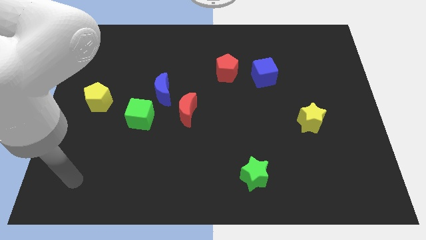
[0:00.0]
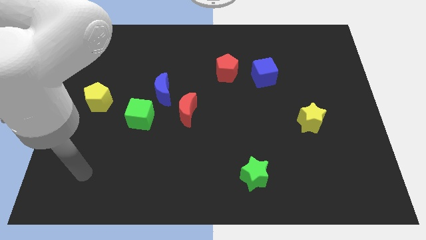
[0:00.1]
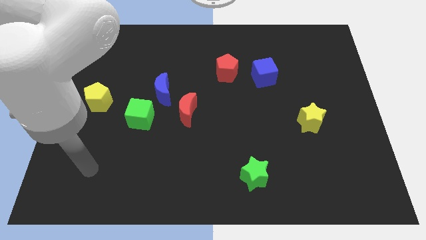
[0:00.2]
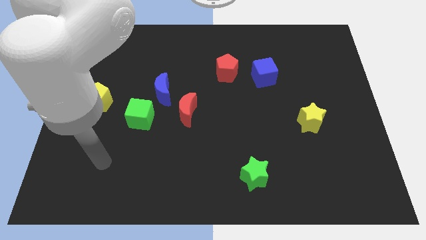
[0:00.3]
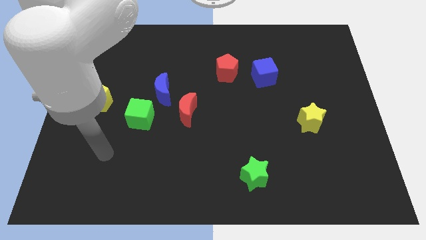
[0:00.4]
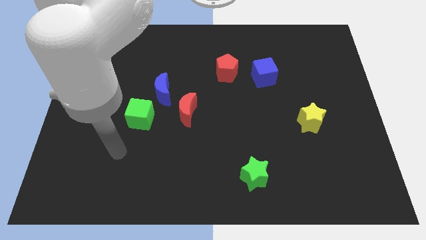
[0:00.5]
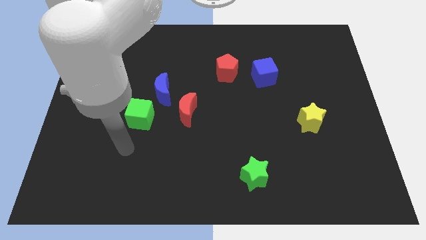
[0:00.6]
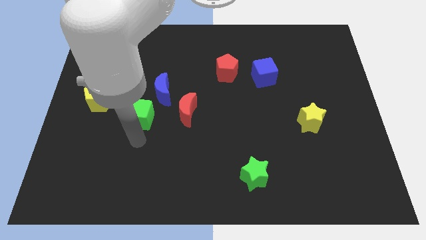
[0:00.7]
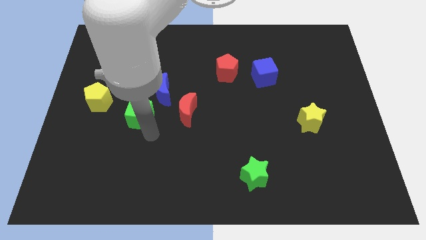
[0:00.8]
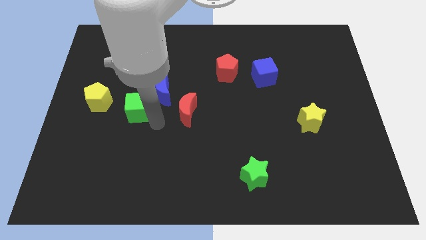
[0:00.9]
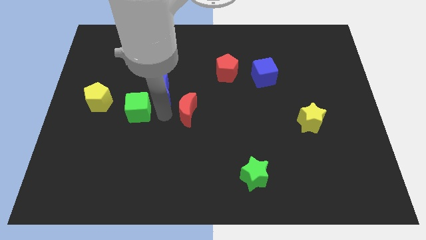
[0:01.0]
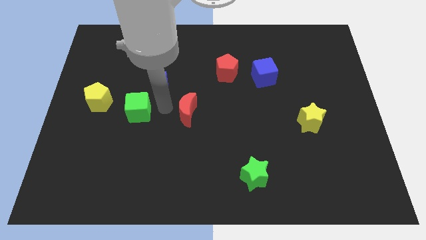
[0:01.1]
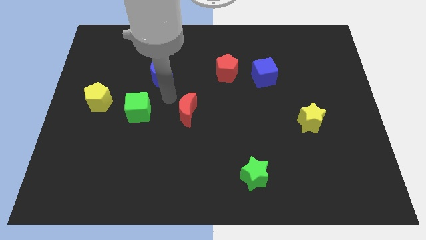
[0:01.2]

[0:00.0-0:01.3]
move the red moon away from the blue moon

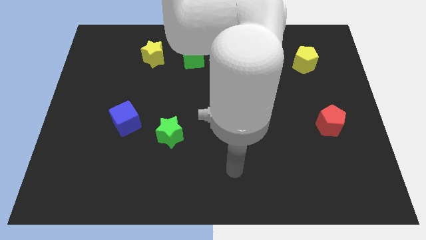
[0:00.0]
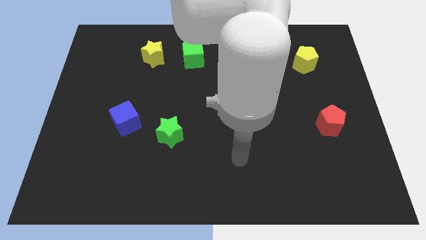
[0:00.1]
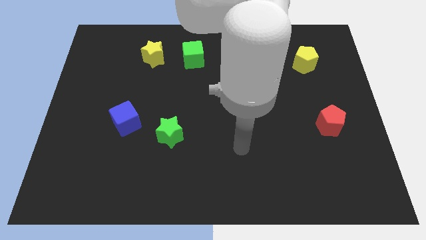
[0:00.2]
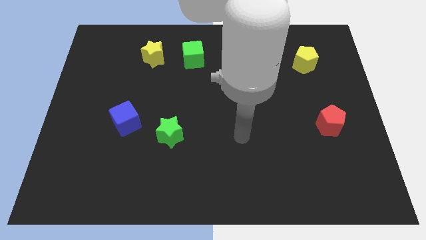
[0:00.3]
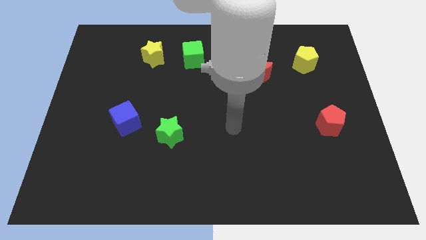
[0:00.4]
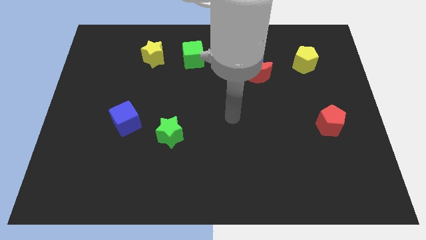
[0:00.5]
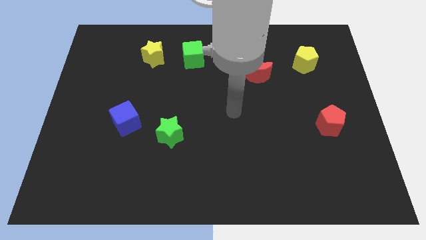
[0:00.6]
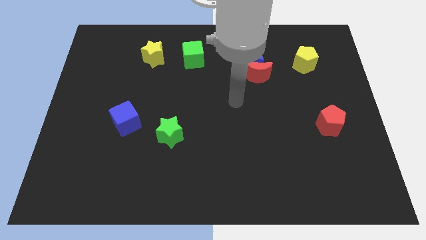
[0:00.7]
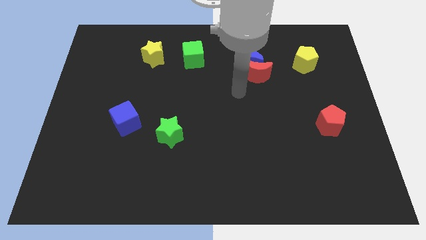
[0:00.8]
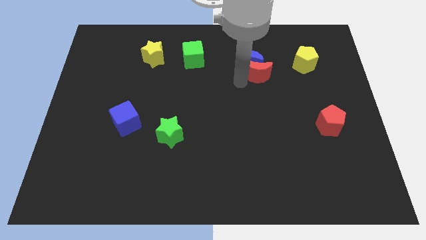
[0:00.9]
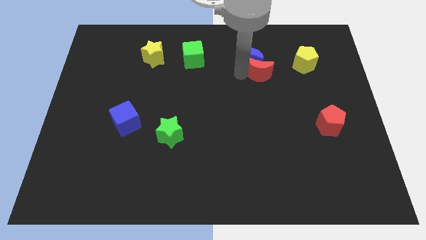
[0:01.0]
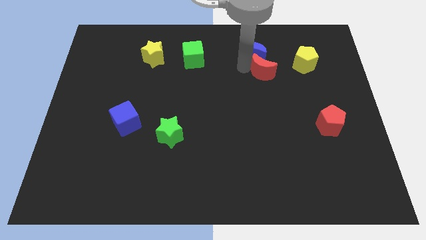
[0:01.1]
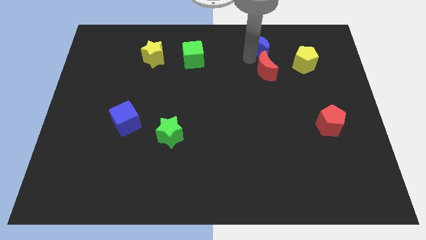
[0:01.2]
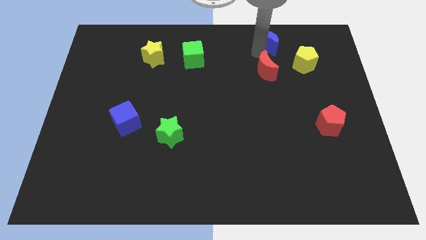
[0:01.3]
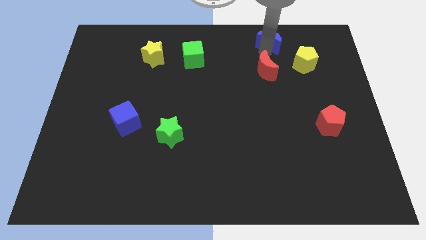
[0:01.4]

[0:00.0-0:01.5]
pull the red moon apart from the blue moon

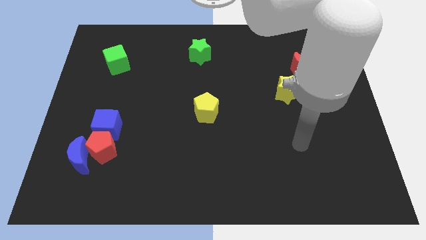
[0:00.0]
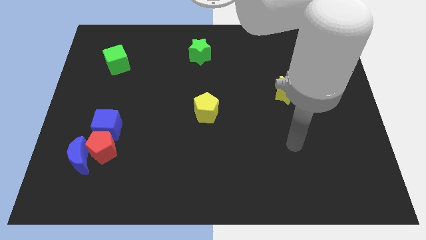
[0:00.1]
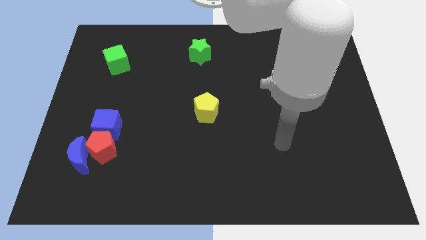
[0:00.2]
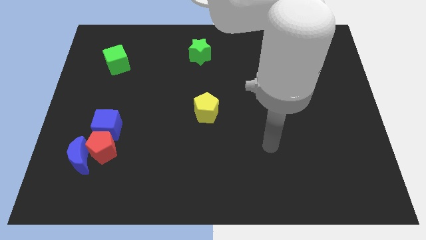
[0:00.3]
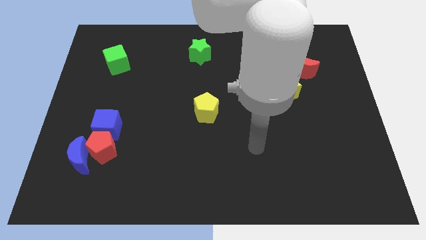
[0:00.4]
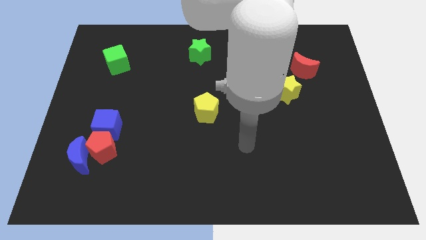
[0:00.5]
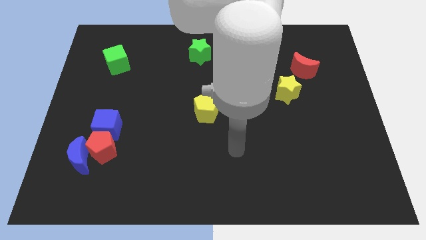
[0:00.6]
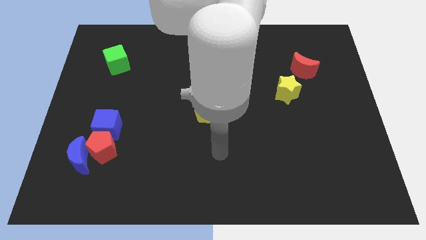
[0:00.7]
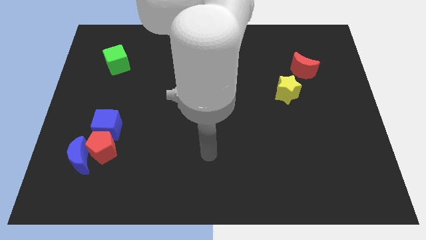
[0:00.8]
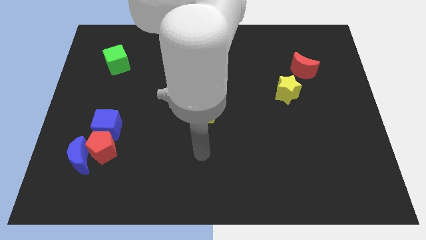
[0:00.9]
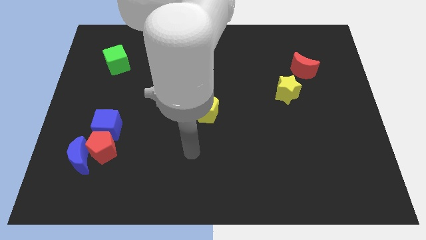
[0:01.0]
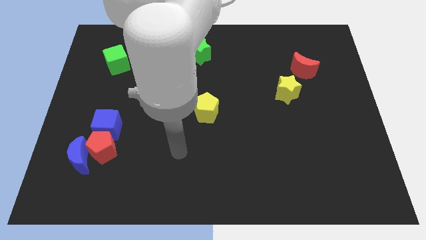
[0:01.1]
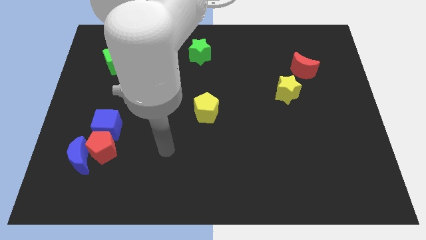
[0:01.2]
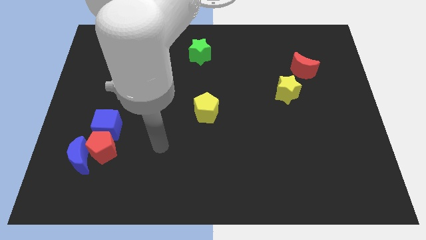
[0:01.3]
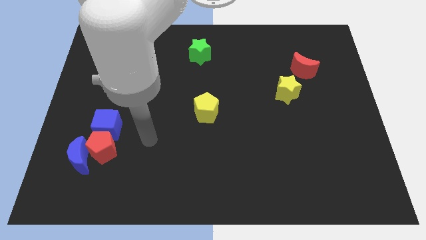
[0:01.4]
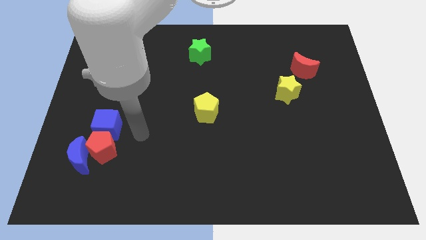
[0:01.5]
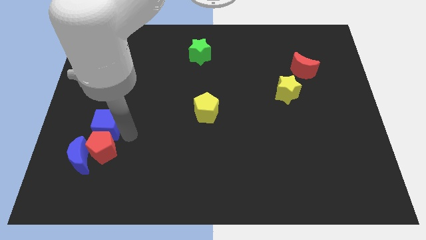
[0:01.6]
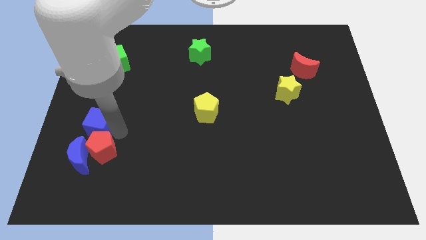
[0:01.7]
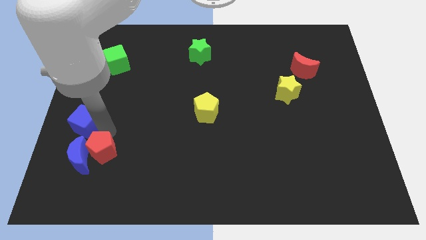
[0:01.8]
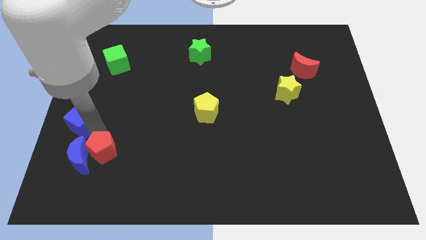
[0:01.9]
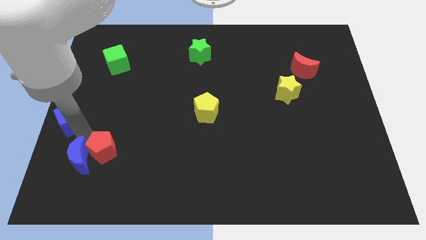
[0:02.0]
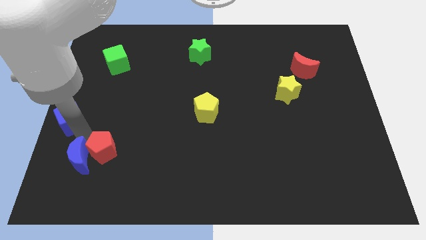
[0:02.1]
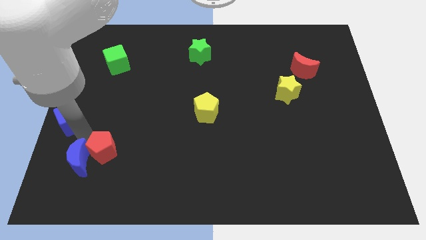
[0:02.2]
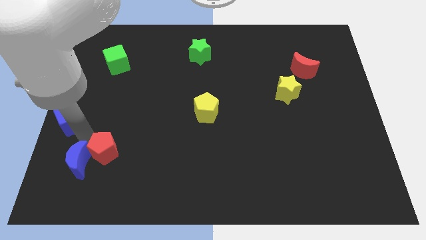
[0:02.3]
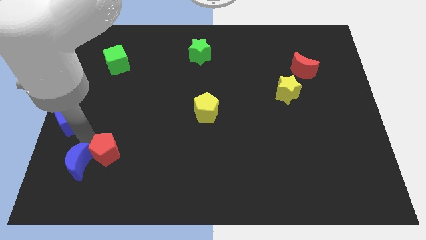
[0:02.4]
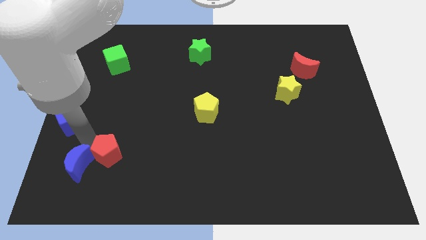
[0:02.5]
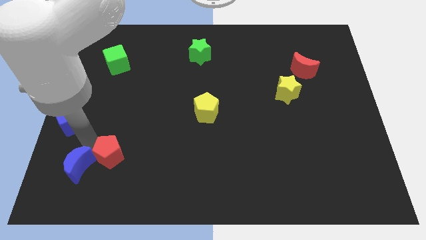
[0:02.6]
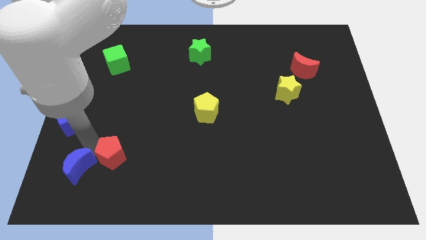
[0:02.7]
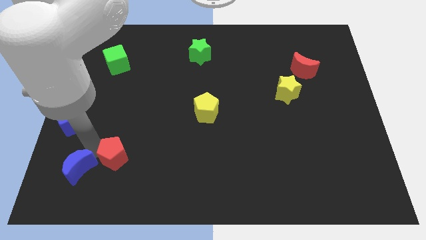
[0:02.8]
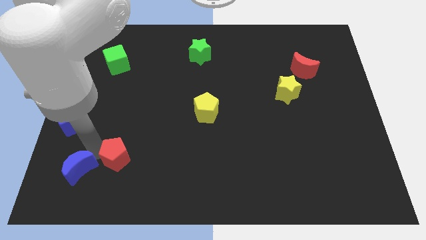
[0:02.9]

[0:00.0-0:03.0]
pull the red pentagon apart from the blue moon and blue cube

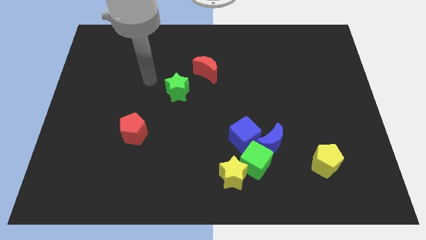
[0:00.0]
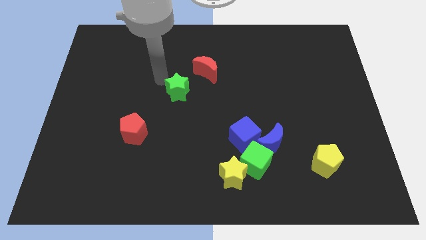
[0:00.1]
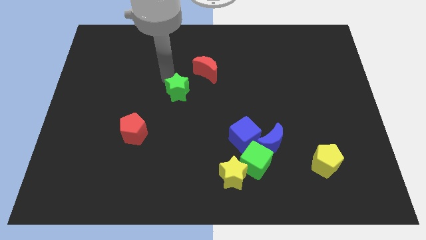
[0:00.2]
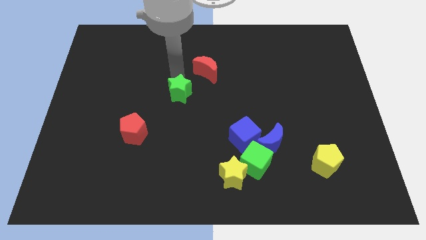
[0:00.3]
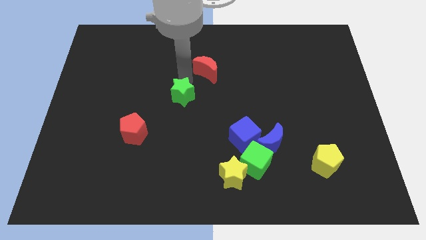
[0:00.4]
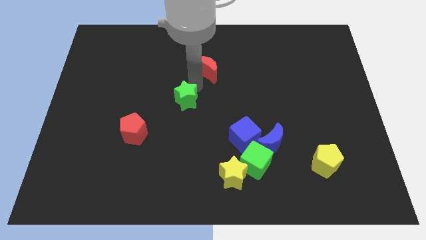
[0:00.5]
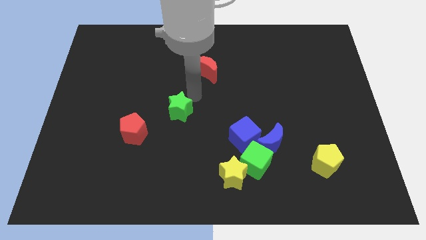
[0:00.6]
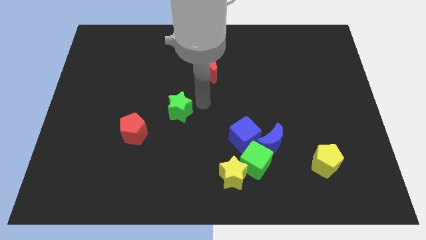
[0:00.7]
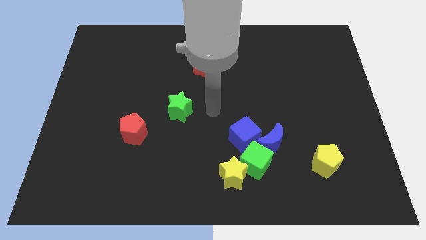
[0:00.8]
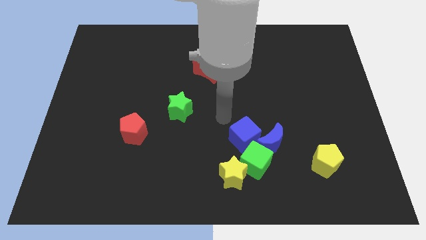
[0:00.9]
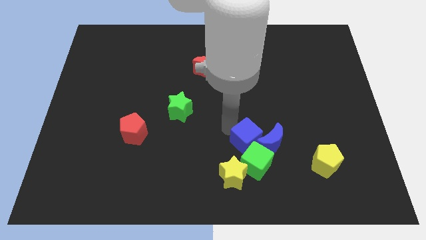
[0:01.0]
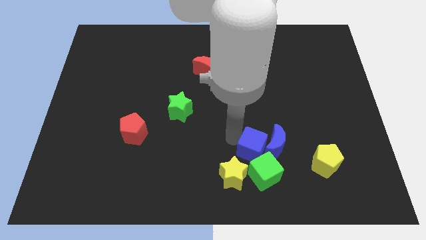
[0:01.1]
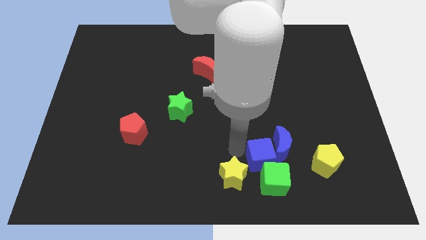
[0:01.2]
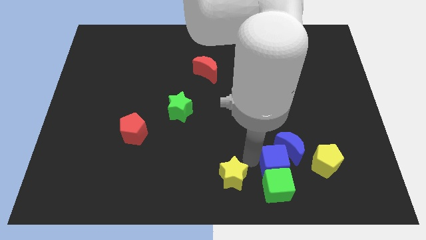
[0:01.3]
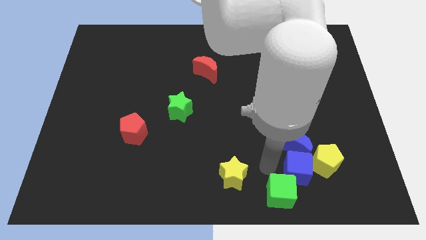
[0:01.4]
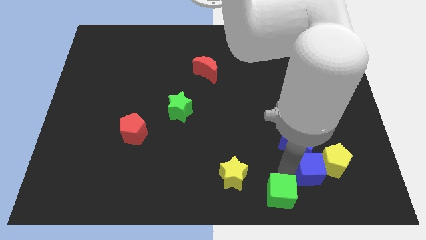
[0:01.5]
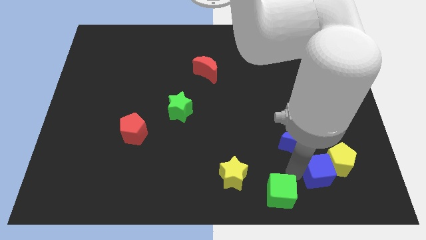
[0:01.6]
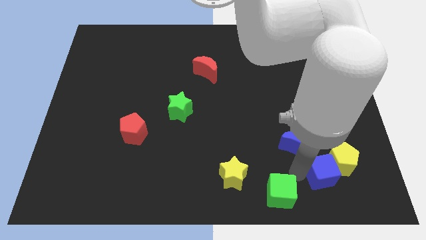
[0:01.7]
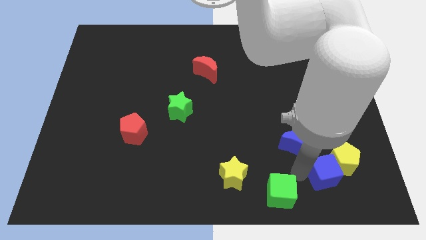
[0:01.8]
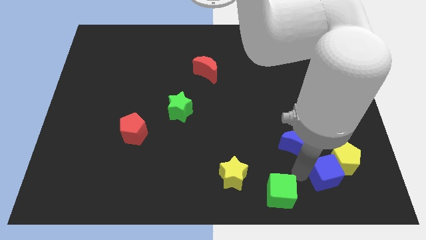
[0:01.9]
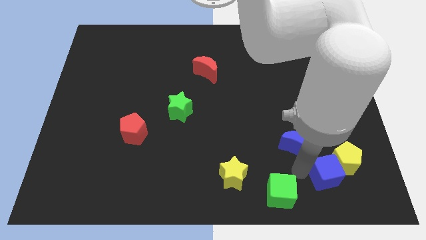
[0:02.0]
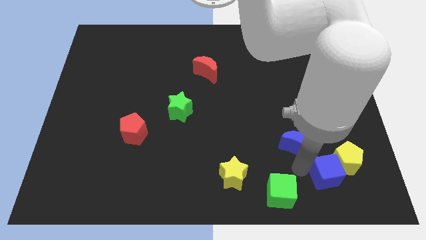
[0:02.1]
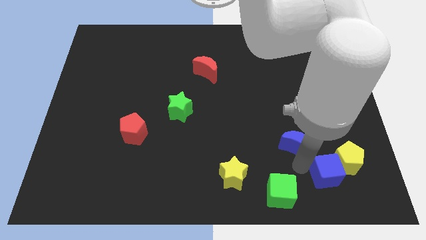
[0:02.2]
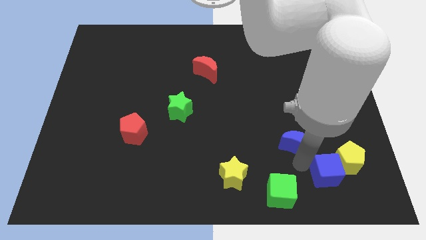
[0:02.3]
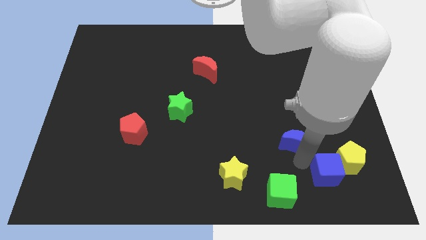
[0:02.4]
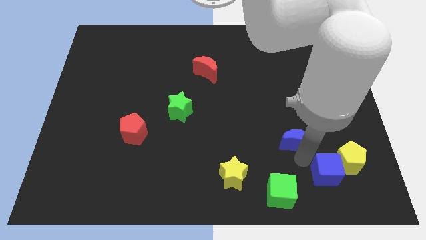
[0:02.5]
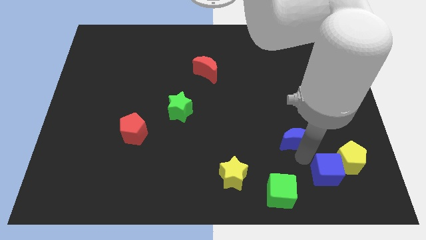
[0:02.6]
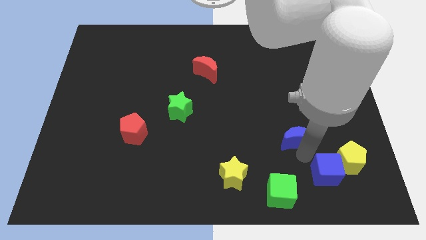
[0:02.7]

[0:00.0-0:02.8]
separate the blue moon from the green cube and blue cube

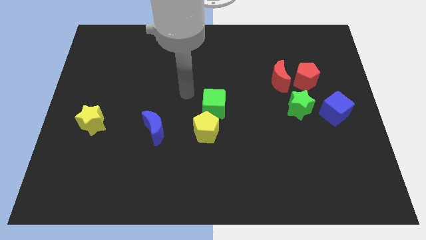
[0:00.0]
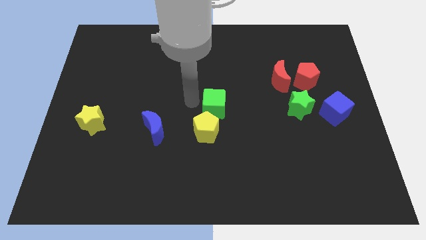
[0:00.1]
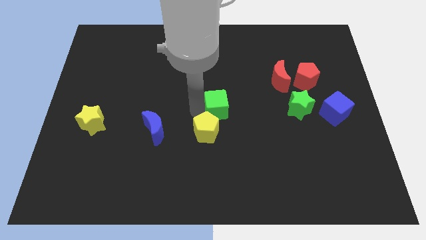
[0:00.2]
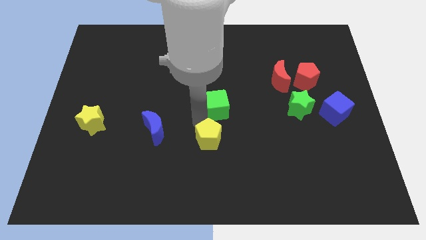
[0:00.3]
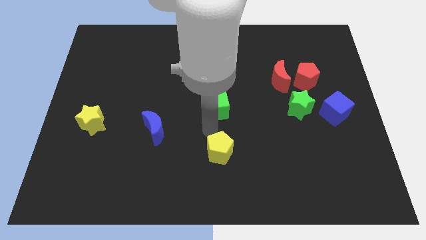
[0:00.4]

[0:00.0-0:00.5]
move the green cube away from the yellow pentagon

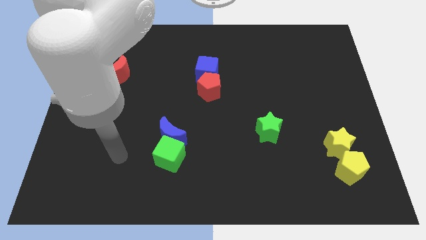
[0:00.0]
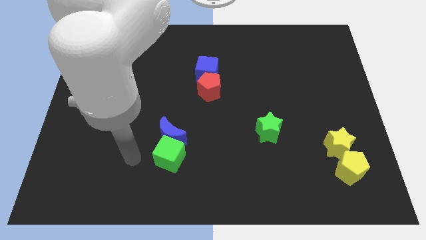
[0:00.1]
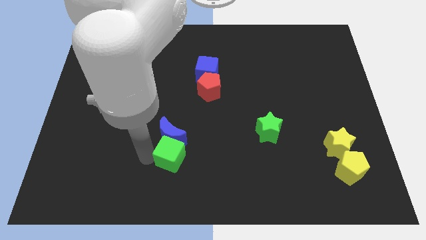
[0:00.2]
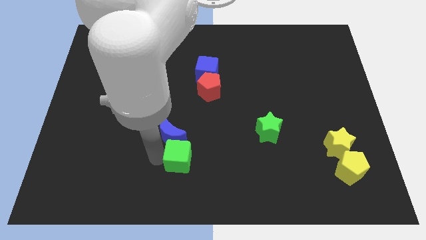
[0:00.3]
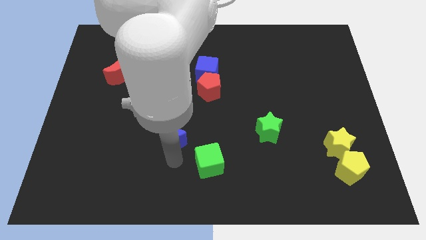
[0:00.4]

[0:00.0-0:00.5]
pull the blue moon apart from the green cube
